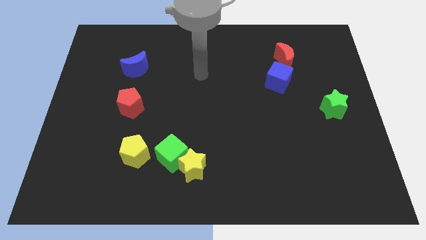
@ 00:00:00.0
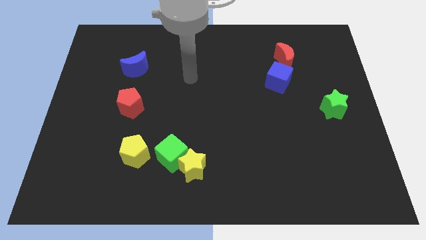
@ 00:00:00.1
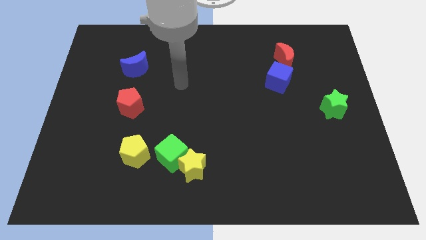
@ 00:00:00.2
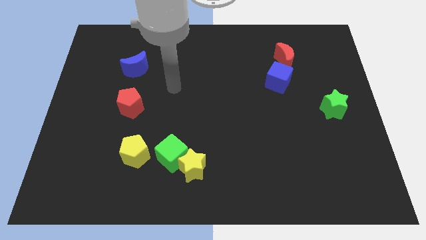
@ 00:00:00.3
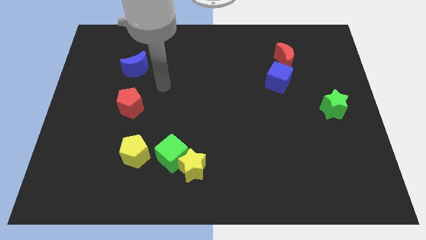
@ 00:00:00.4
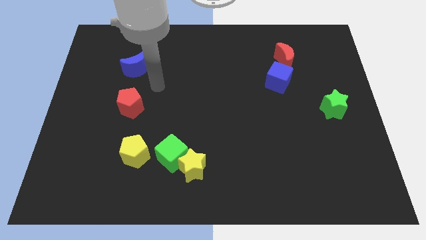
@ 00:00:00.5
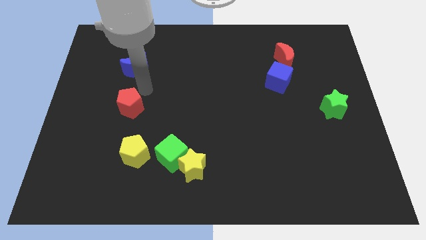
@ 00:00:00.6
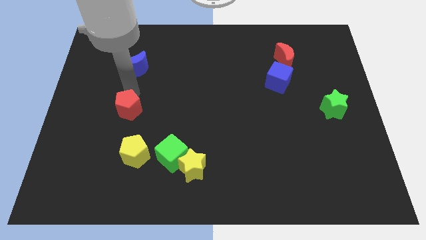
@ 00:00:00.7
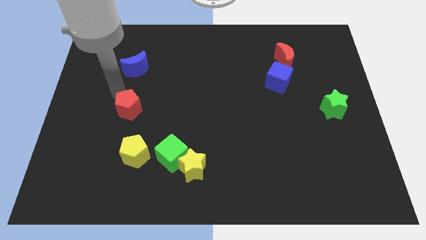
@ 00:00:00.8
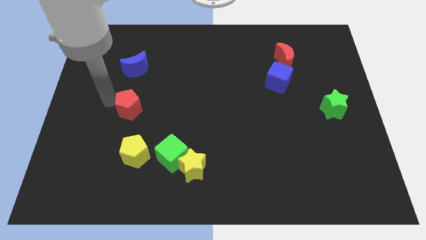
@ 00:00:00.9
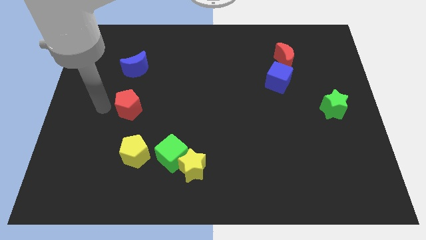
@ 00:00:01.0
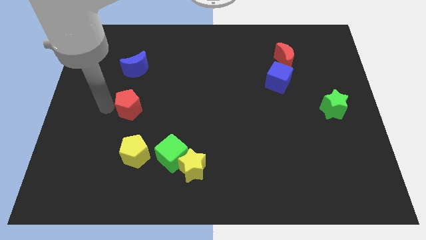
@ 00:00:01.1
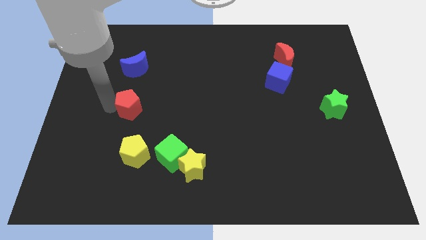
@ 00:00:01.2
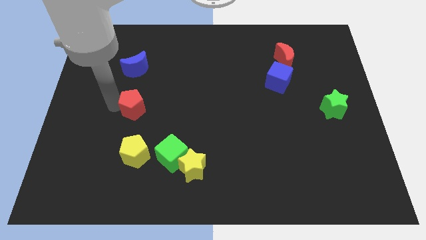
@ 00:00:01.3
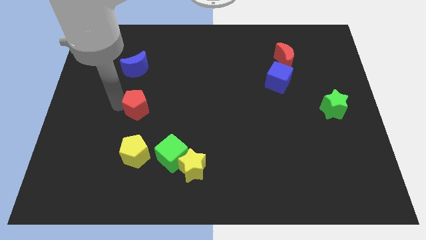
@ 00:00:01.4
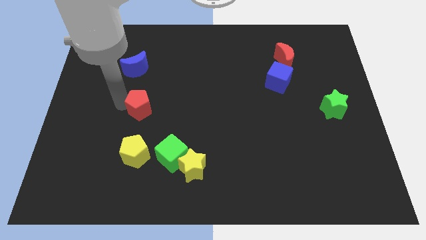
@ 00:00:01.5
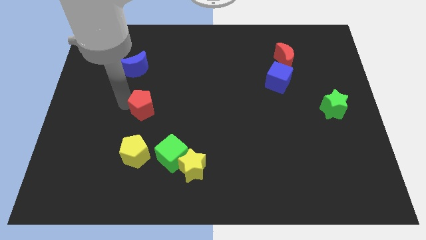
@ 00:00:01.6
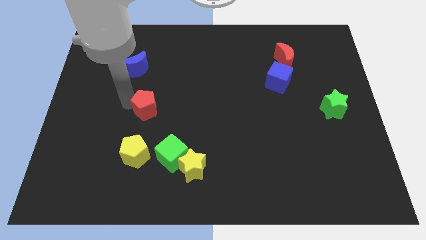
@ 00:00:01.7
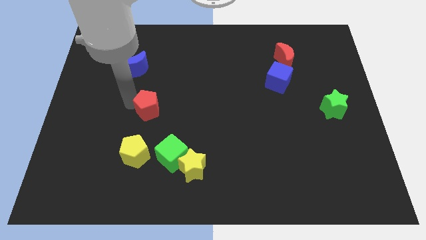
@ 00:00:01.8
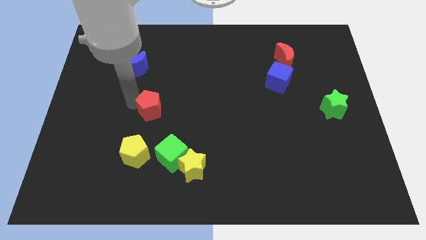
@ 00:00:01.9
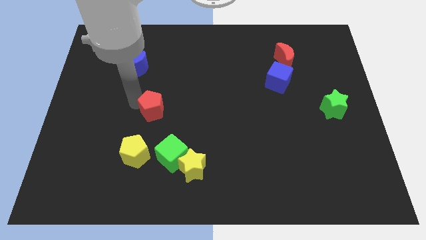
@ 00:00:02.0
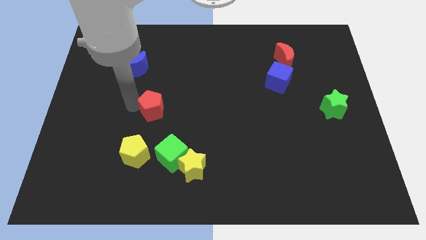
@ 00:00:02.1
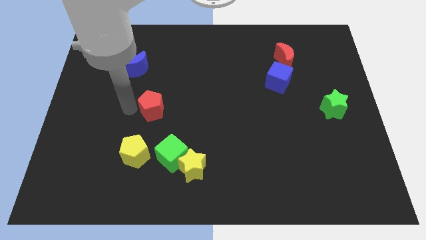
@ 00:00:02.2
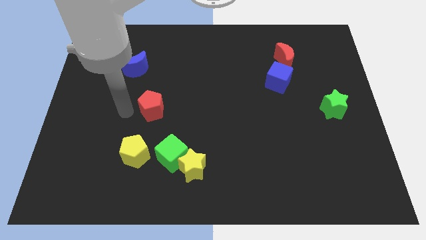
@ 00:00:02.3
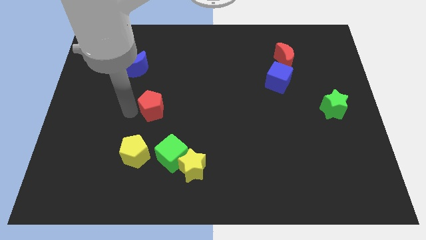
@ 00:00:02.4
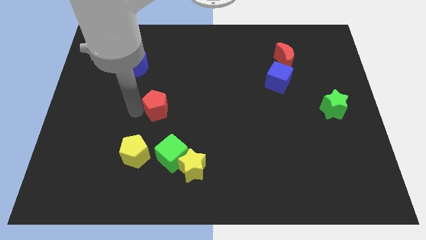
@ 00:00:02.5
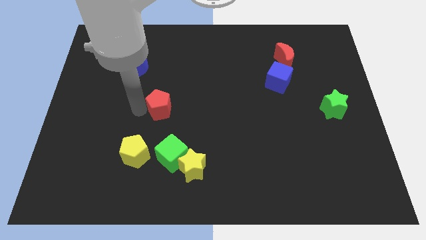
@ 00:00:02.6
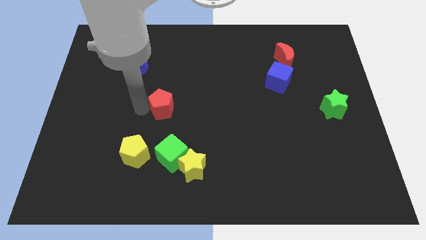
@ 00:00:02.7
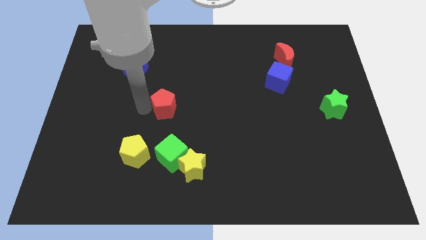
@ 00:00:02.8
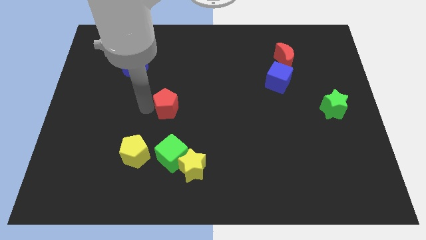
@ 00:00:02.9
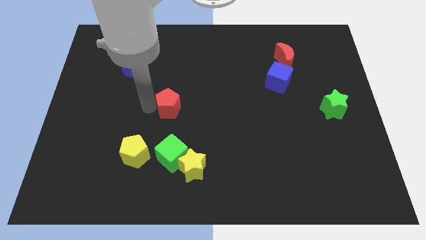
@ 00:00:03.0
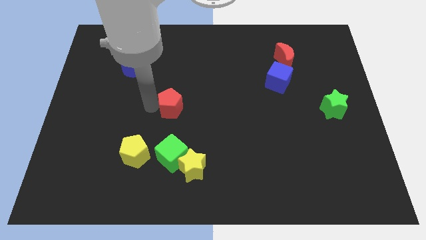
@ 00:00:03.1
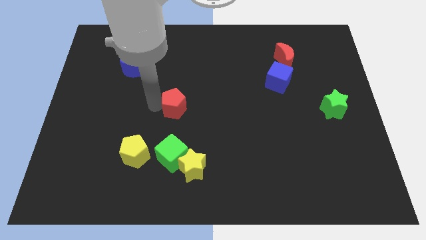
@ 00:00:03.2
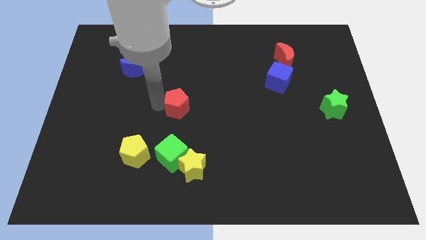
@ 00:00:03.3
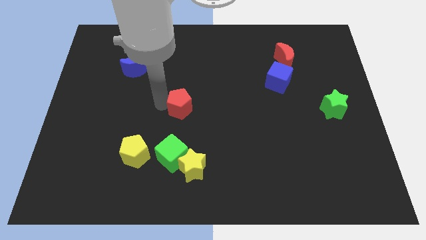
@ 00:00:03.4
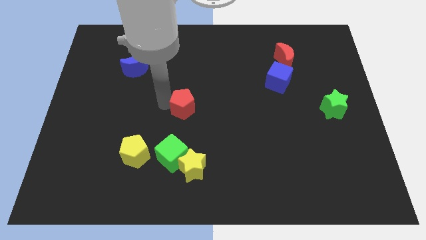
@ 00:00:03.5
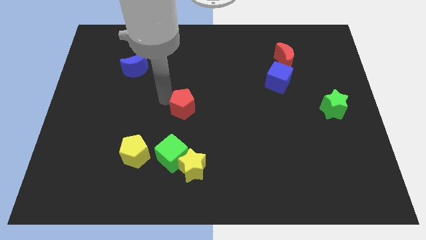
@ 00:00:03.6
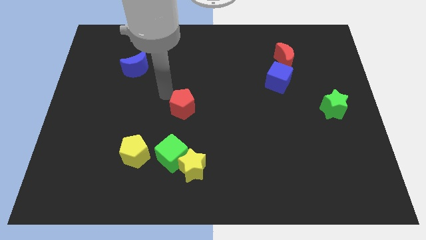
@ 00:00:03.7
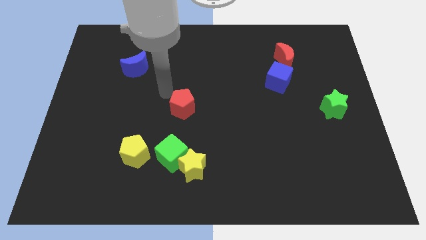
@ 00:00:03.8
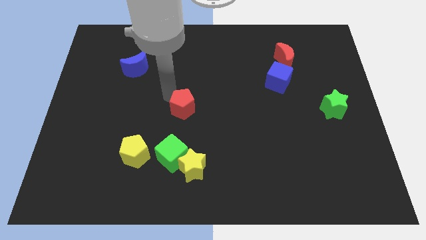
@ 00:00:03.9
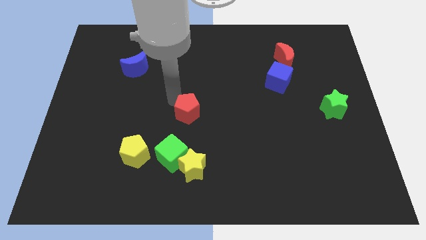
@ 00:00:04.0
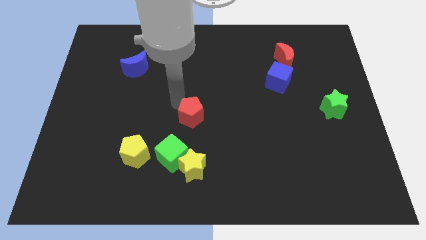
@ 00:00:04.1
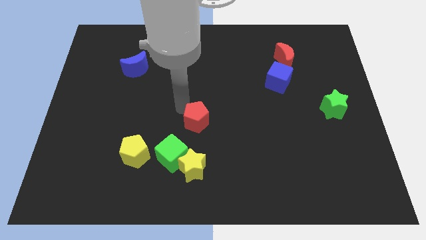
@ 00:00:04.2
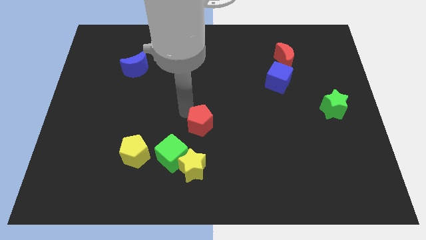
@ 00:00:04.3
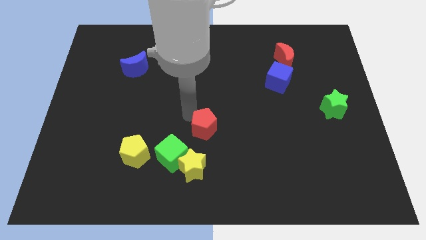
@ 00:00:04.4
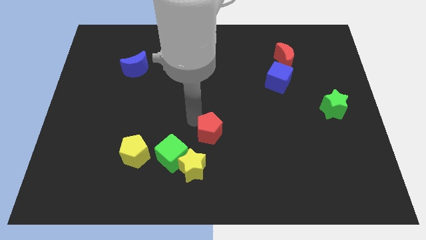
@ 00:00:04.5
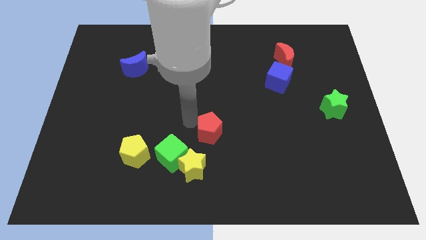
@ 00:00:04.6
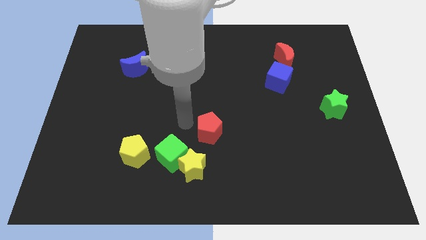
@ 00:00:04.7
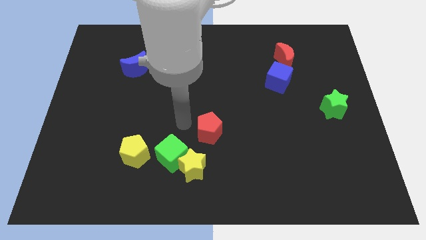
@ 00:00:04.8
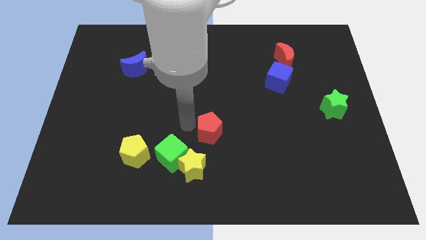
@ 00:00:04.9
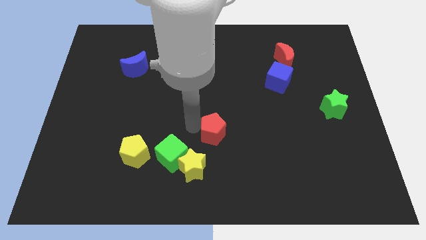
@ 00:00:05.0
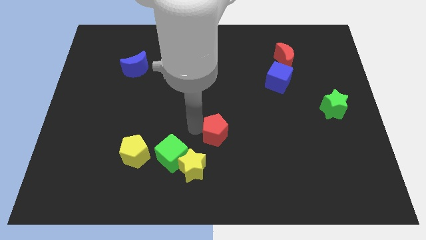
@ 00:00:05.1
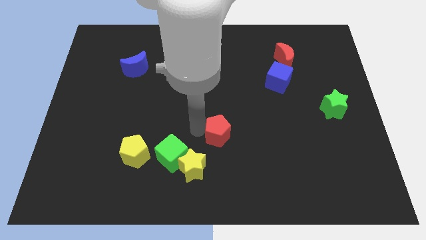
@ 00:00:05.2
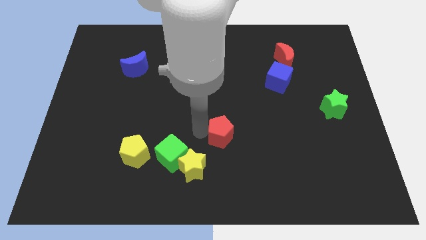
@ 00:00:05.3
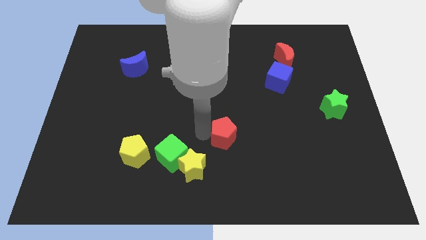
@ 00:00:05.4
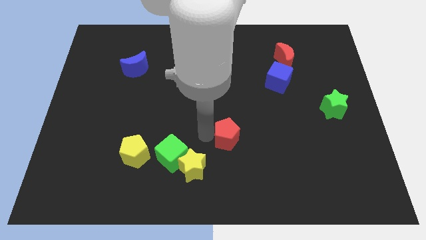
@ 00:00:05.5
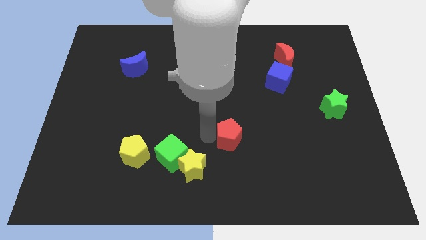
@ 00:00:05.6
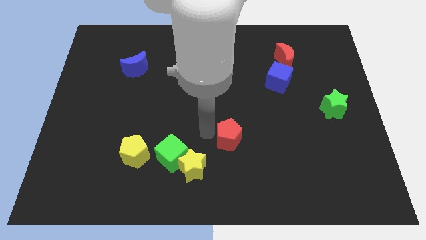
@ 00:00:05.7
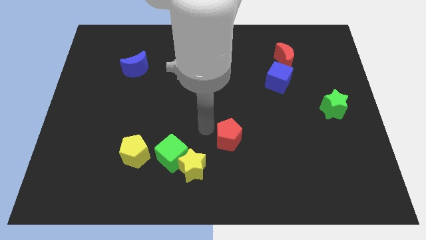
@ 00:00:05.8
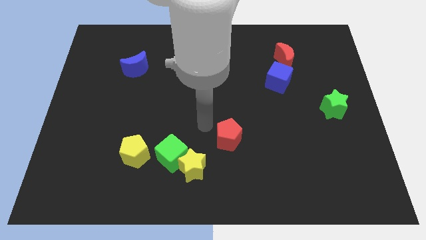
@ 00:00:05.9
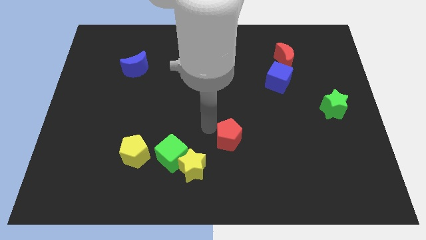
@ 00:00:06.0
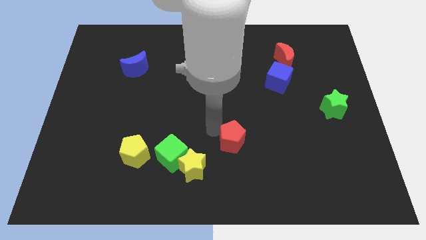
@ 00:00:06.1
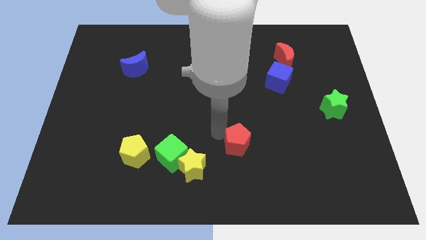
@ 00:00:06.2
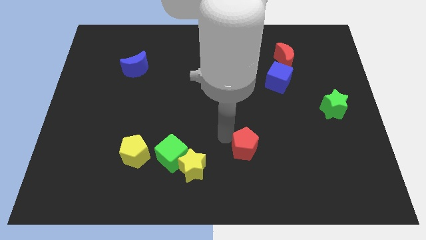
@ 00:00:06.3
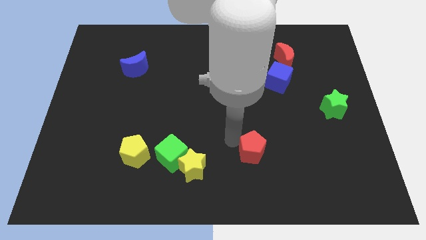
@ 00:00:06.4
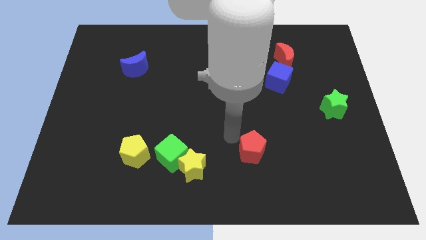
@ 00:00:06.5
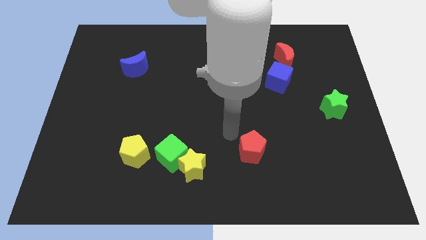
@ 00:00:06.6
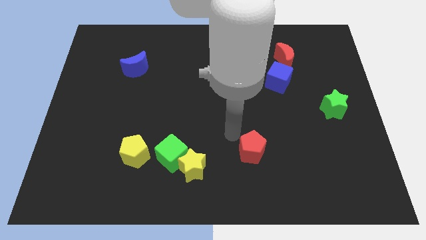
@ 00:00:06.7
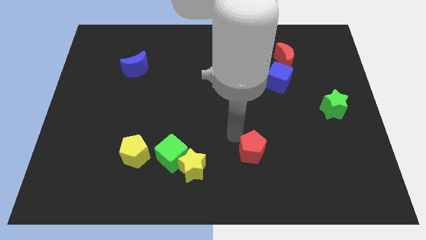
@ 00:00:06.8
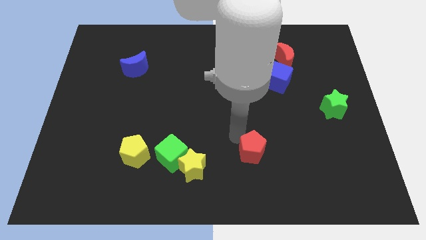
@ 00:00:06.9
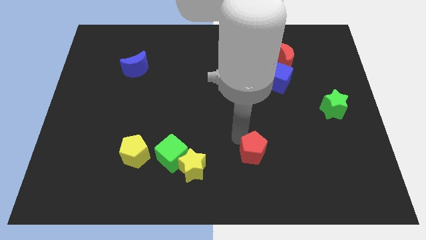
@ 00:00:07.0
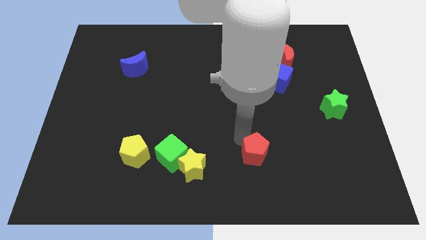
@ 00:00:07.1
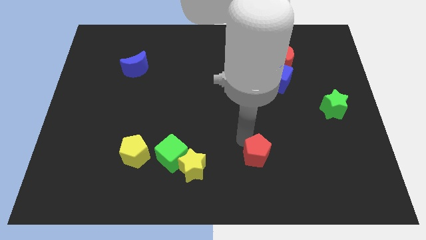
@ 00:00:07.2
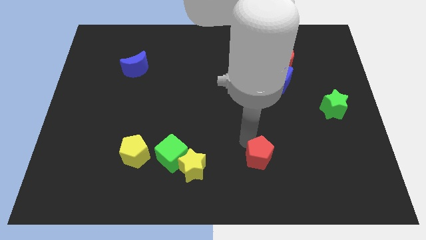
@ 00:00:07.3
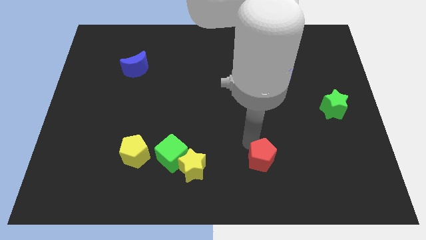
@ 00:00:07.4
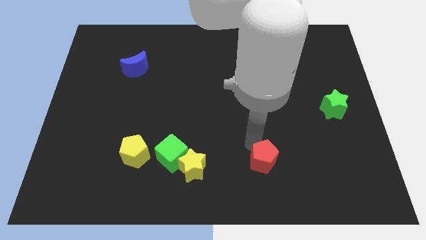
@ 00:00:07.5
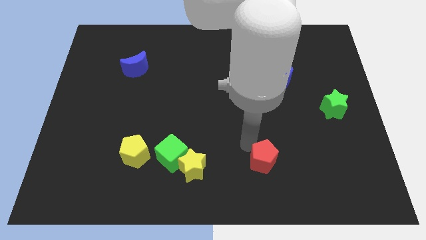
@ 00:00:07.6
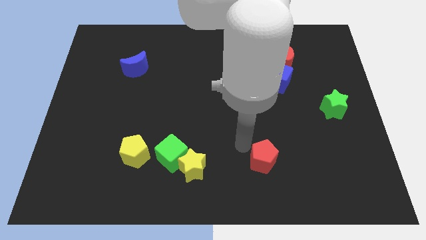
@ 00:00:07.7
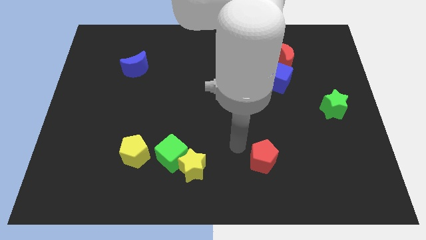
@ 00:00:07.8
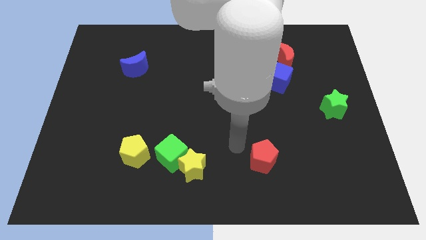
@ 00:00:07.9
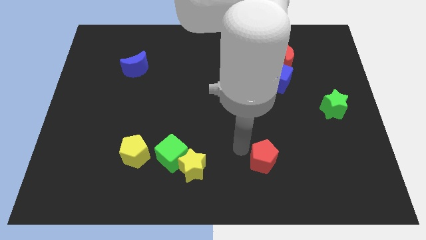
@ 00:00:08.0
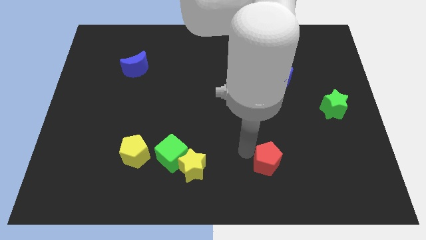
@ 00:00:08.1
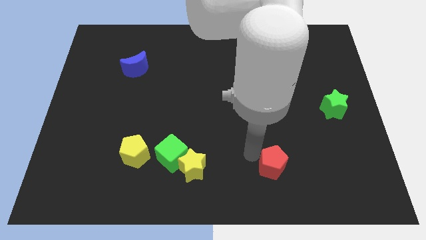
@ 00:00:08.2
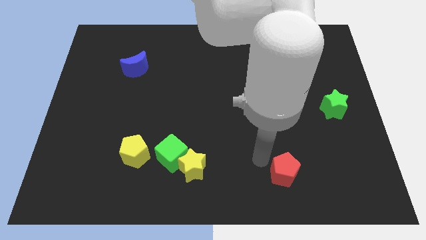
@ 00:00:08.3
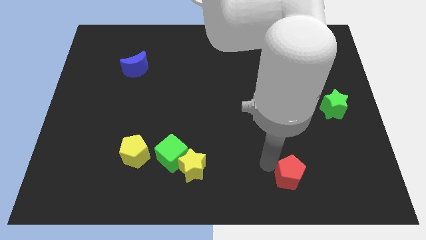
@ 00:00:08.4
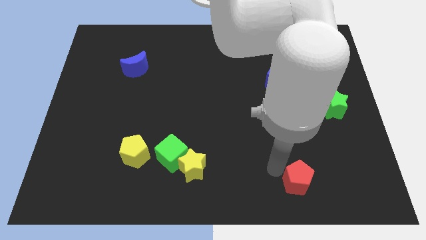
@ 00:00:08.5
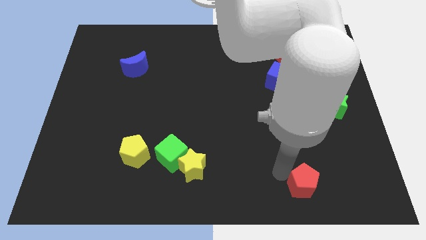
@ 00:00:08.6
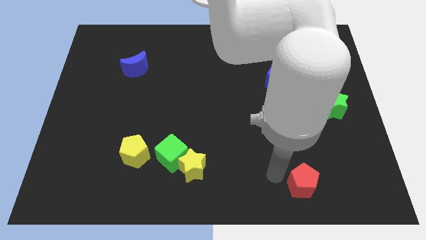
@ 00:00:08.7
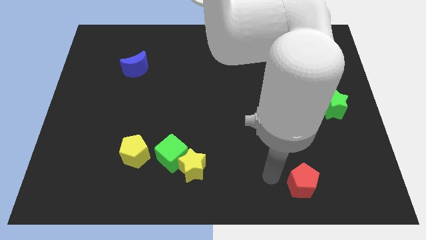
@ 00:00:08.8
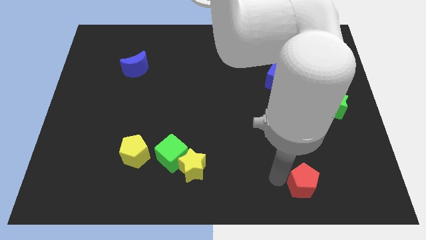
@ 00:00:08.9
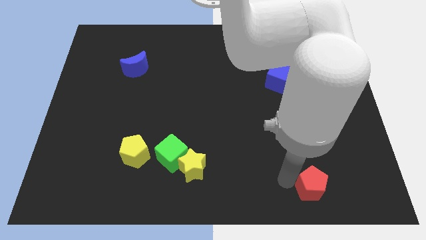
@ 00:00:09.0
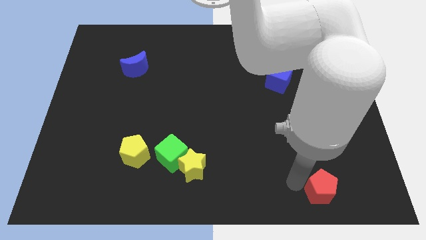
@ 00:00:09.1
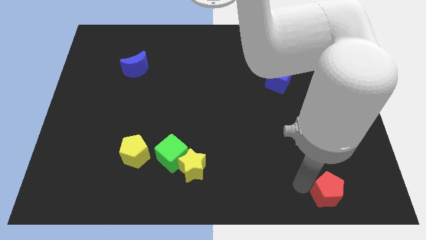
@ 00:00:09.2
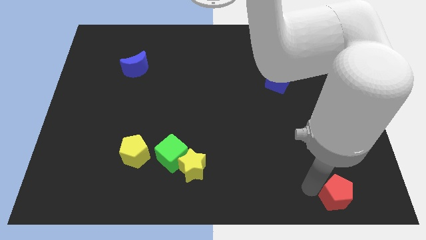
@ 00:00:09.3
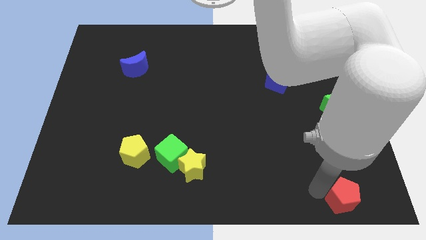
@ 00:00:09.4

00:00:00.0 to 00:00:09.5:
push the red pentagon to the bottom right
